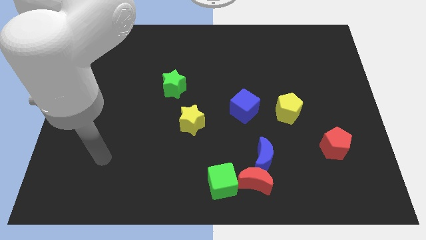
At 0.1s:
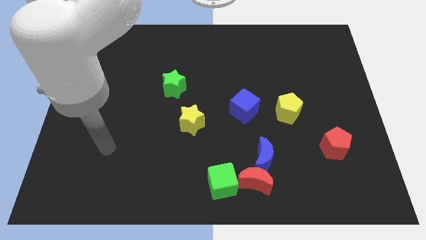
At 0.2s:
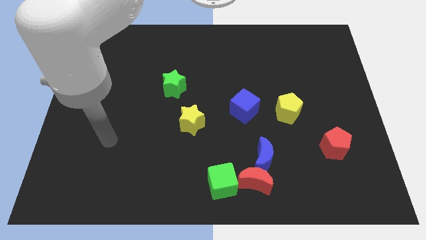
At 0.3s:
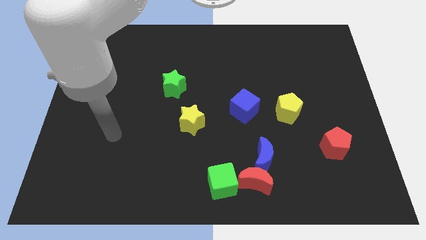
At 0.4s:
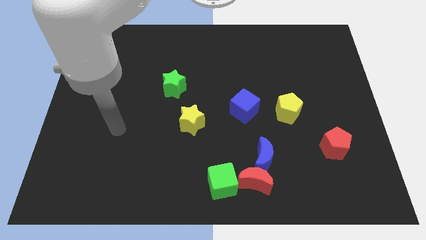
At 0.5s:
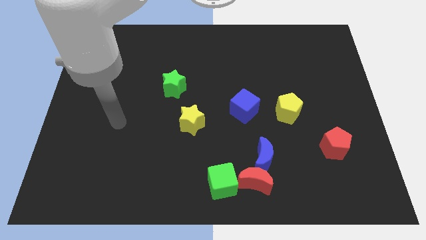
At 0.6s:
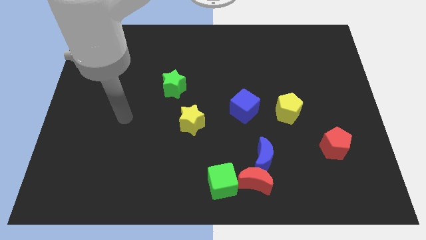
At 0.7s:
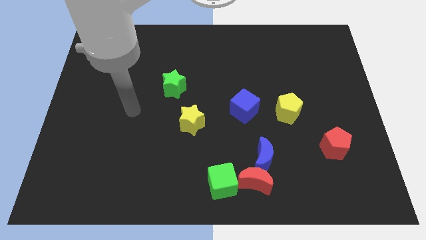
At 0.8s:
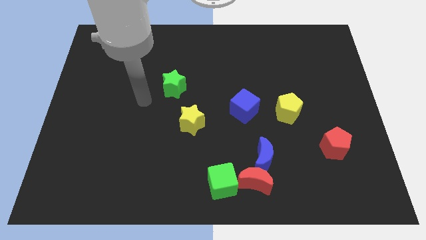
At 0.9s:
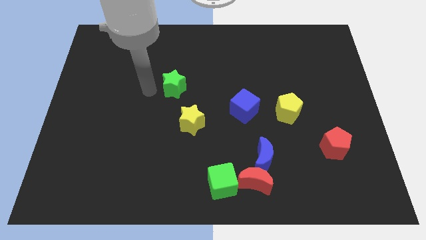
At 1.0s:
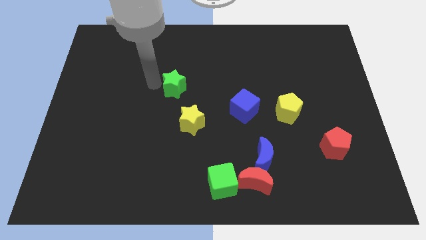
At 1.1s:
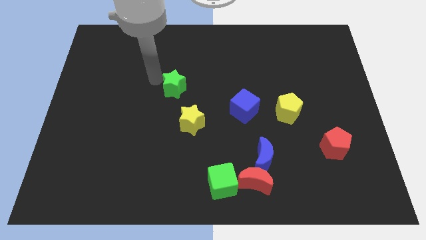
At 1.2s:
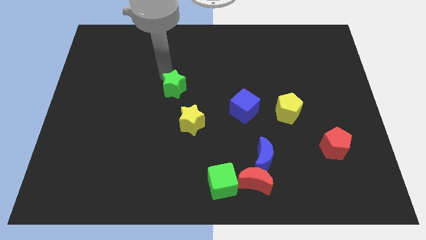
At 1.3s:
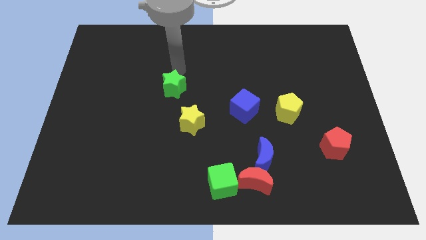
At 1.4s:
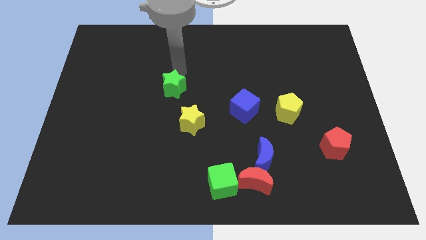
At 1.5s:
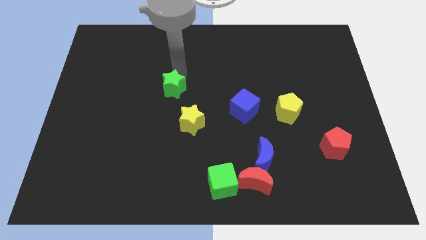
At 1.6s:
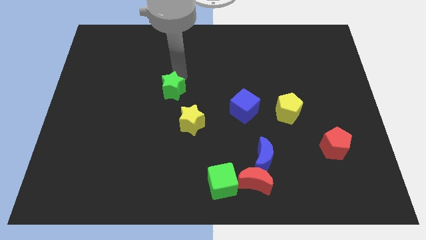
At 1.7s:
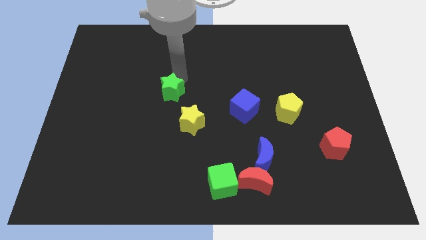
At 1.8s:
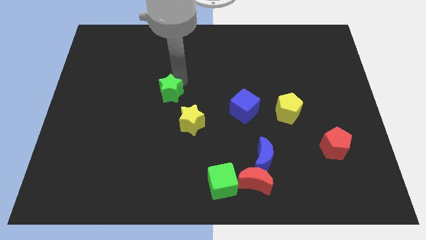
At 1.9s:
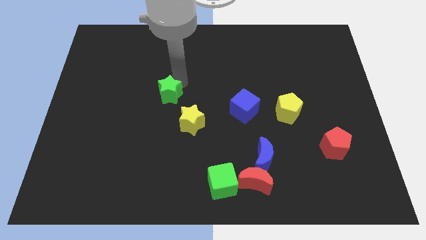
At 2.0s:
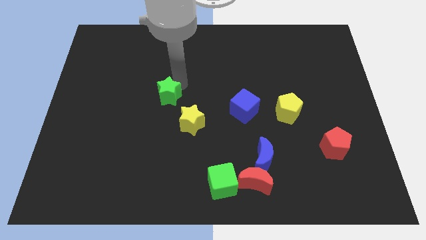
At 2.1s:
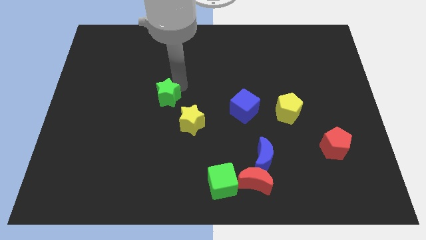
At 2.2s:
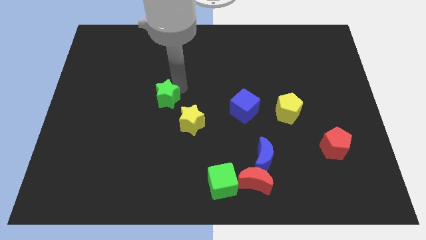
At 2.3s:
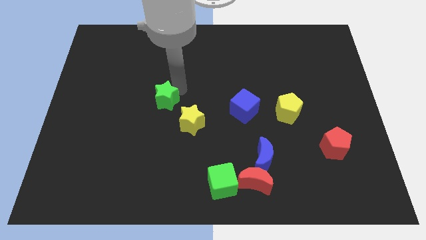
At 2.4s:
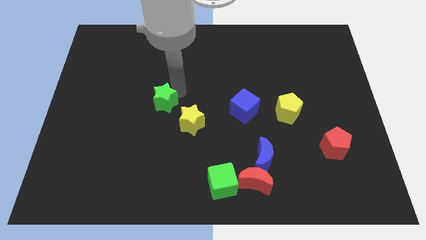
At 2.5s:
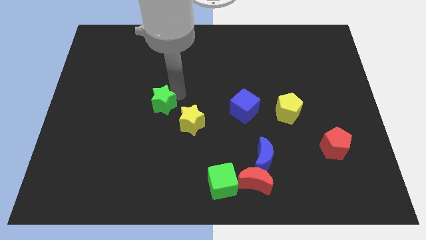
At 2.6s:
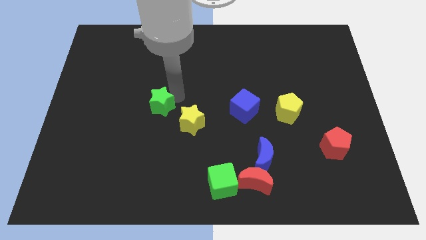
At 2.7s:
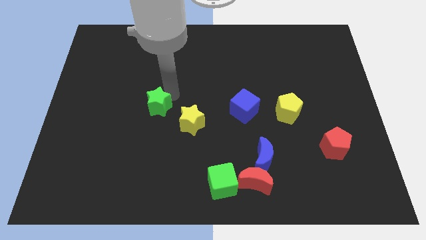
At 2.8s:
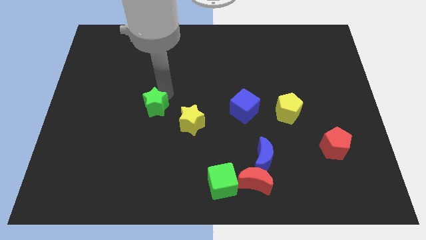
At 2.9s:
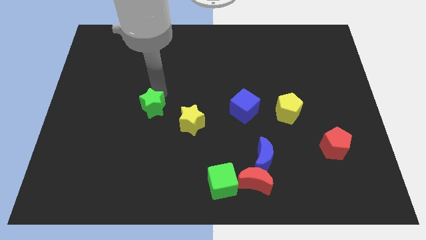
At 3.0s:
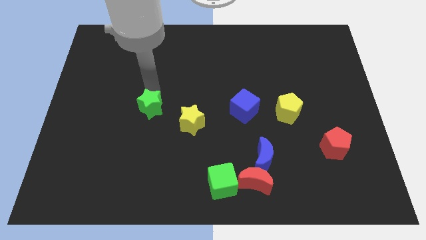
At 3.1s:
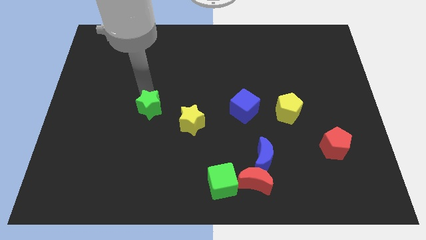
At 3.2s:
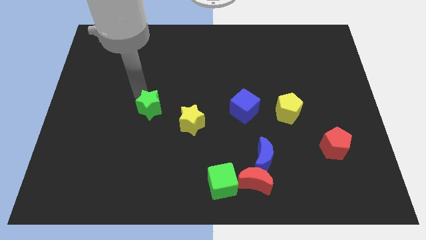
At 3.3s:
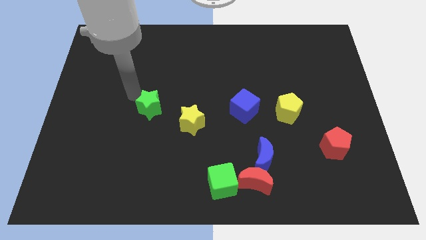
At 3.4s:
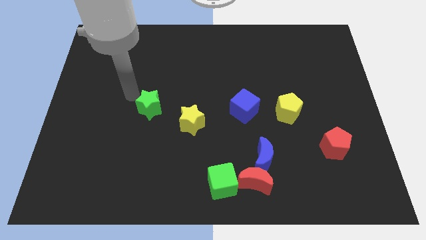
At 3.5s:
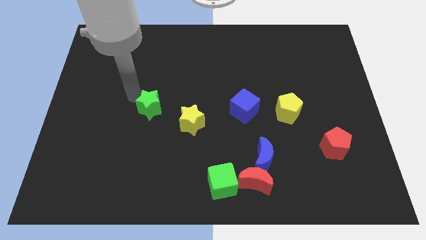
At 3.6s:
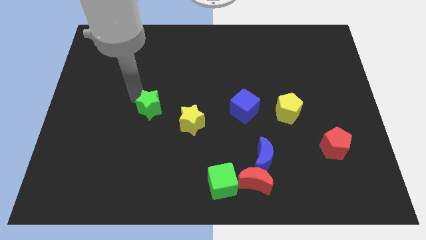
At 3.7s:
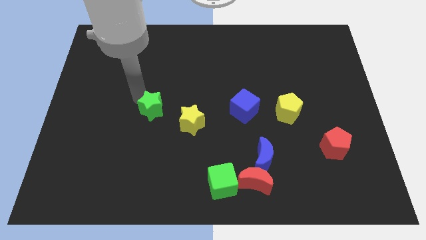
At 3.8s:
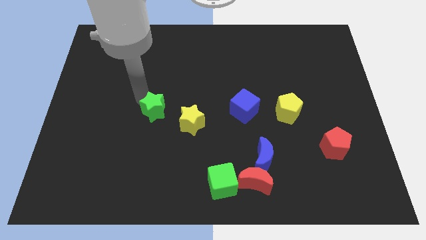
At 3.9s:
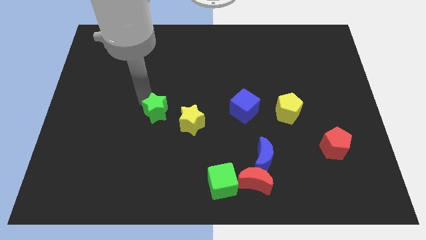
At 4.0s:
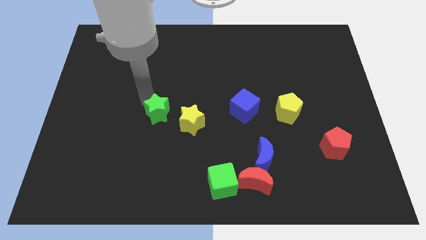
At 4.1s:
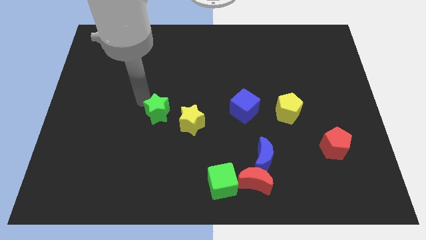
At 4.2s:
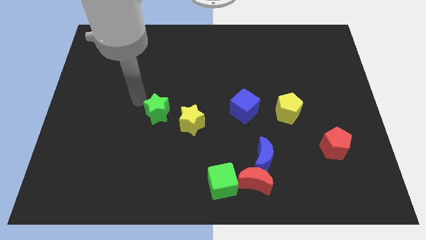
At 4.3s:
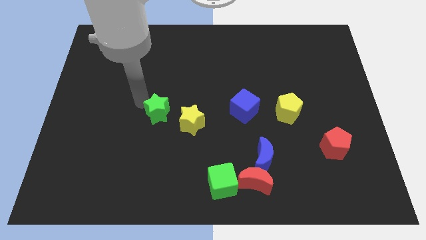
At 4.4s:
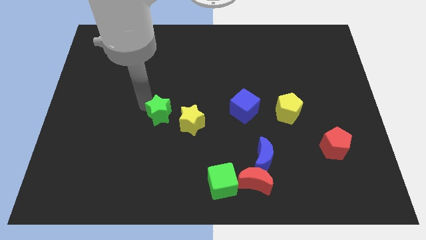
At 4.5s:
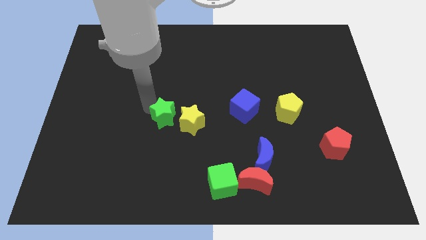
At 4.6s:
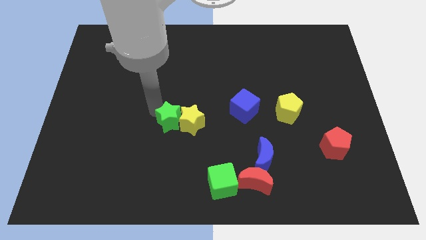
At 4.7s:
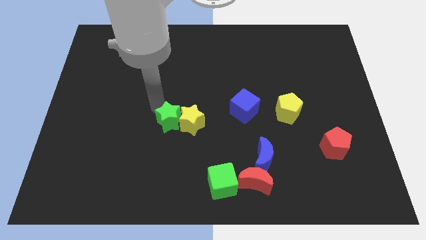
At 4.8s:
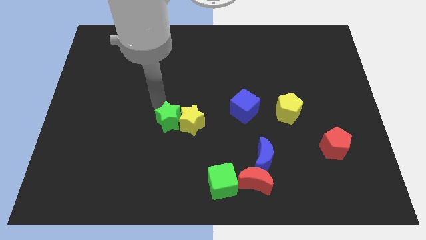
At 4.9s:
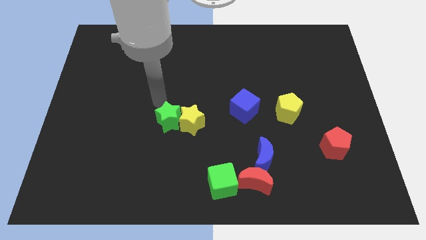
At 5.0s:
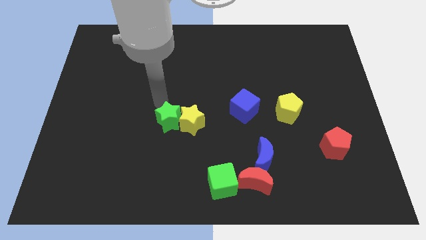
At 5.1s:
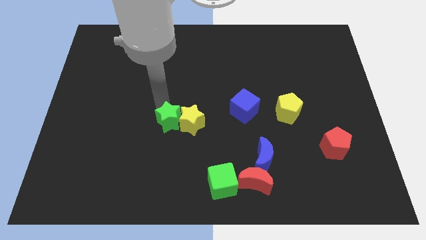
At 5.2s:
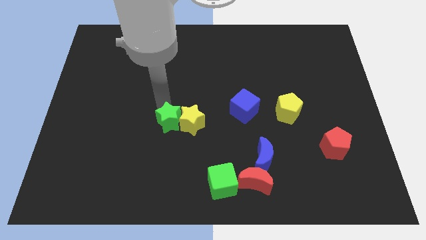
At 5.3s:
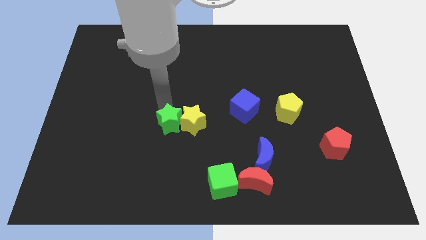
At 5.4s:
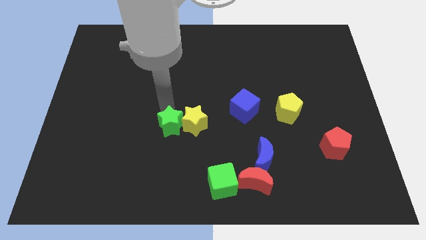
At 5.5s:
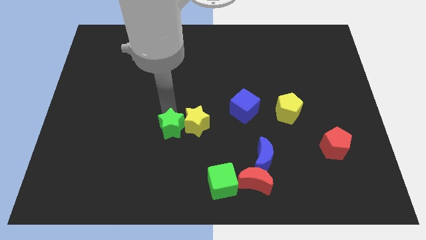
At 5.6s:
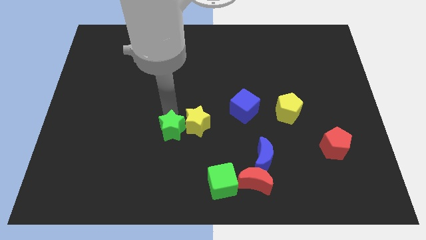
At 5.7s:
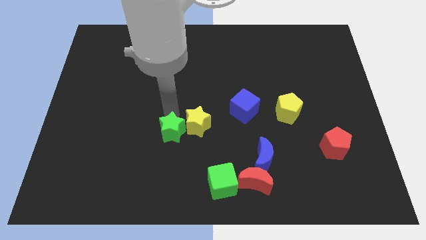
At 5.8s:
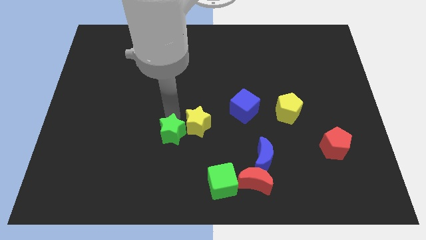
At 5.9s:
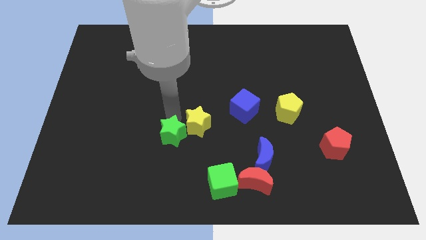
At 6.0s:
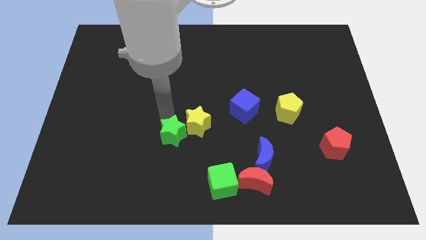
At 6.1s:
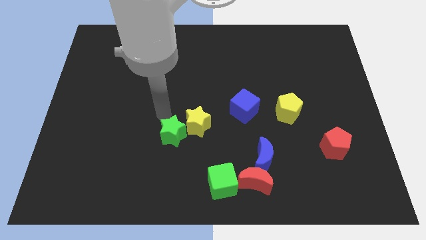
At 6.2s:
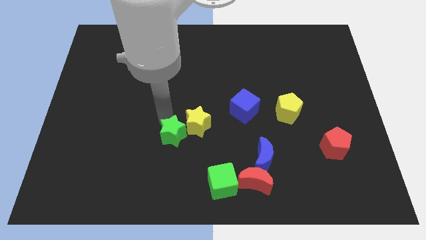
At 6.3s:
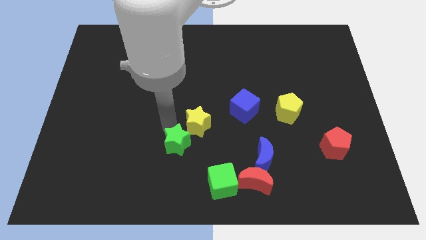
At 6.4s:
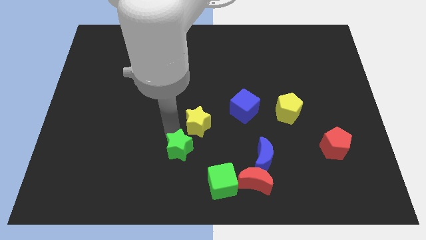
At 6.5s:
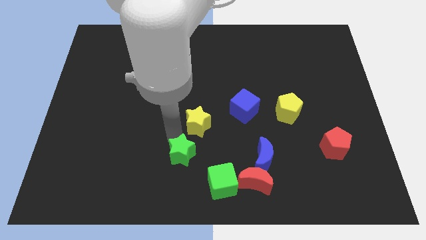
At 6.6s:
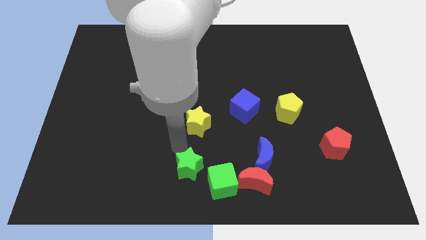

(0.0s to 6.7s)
move the green star to the bottom side

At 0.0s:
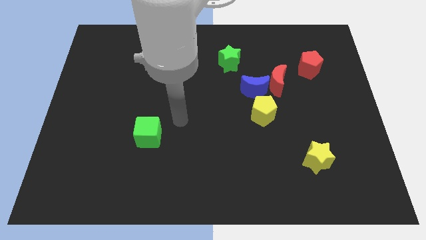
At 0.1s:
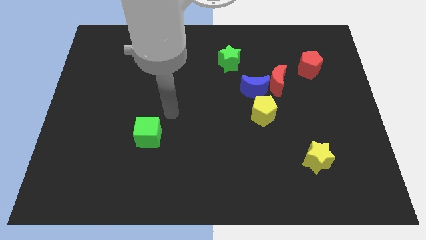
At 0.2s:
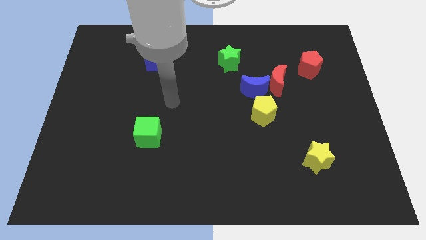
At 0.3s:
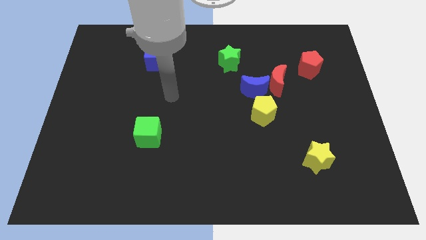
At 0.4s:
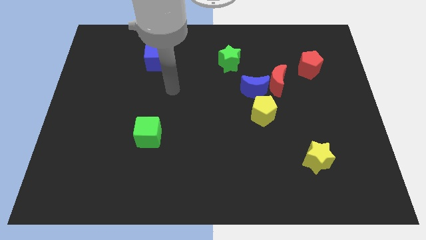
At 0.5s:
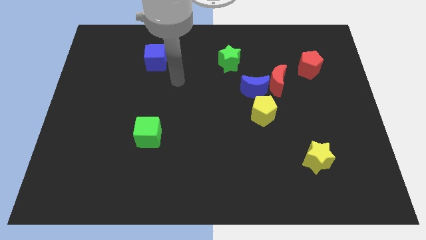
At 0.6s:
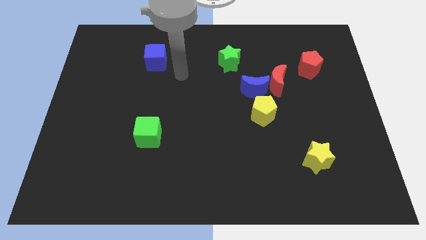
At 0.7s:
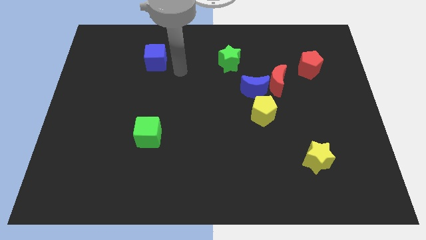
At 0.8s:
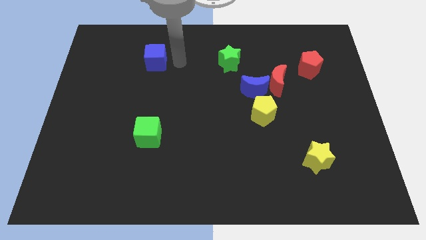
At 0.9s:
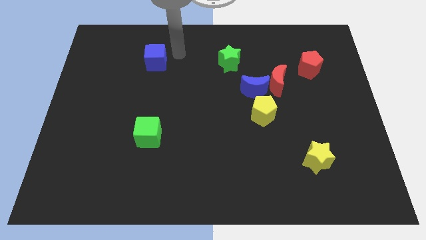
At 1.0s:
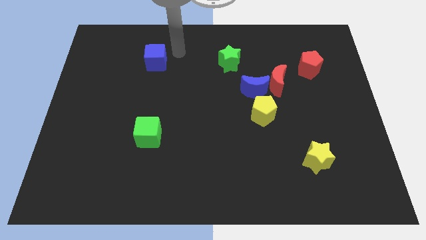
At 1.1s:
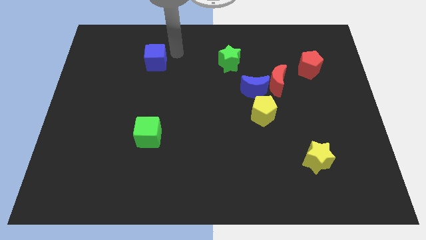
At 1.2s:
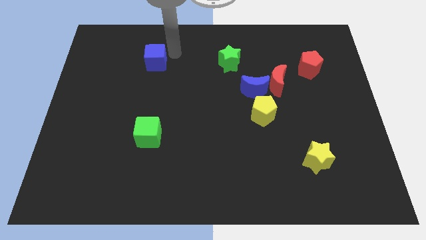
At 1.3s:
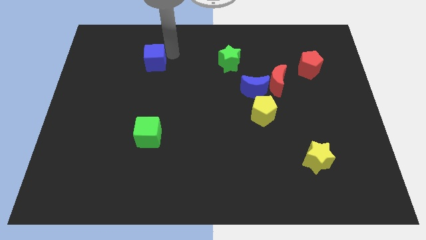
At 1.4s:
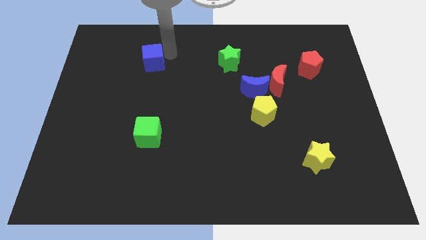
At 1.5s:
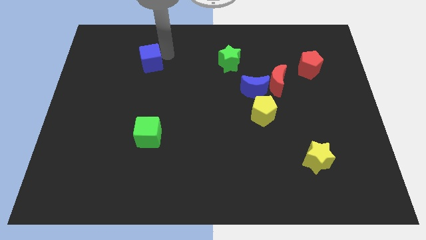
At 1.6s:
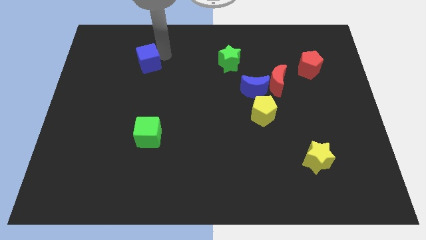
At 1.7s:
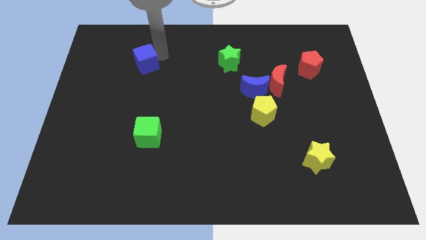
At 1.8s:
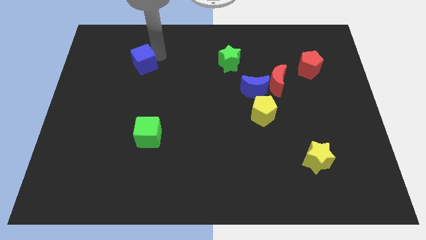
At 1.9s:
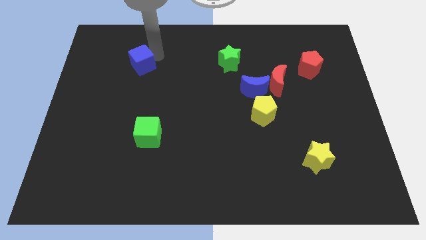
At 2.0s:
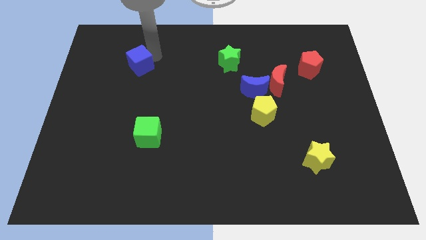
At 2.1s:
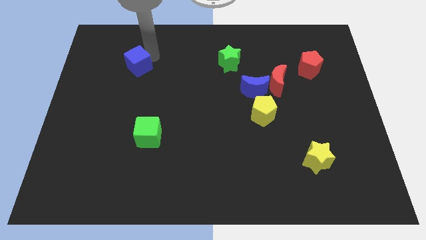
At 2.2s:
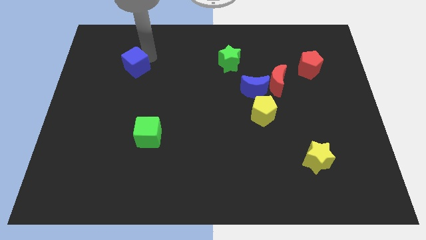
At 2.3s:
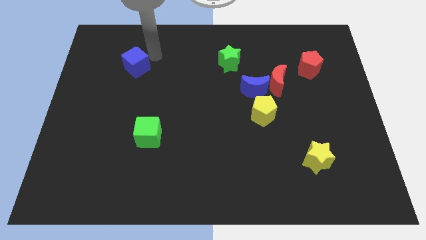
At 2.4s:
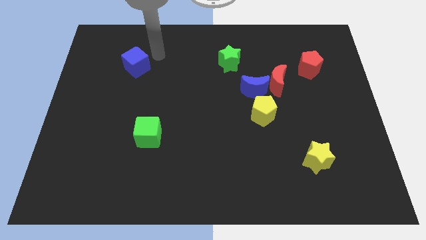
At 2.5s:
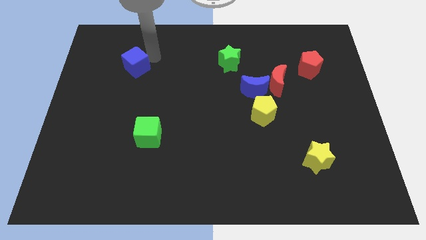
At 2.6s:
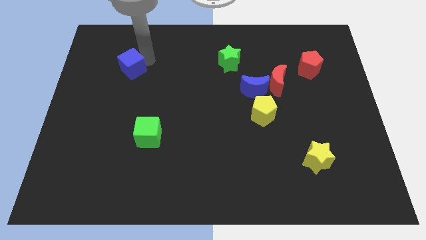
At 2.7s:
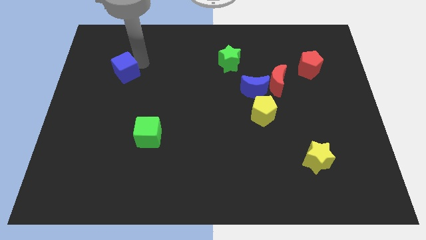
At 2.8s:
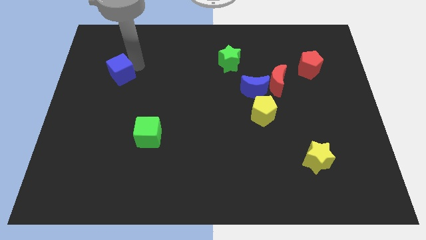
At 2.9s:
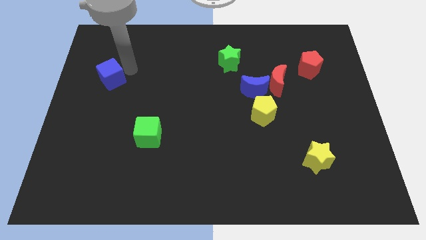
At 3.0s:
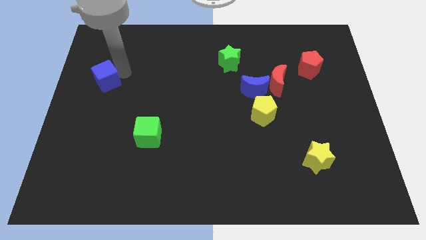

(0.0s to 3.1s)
move the blue cube to the left side of the board
